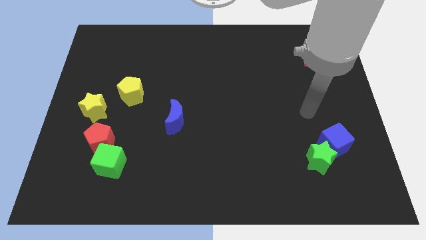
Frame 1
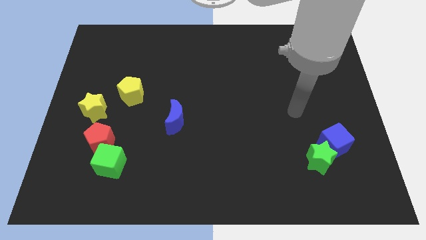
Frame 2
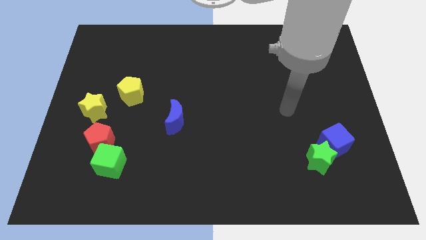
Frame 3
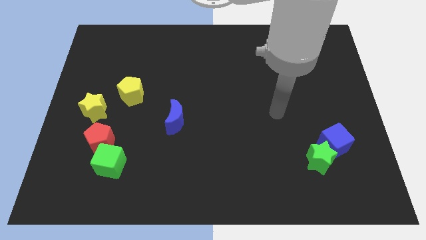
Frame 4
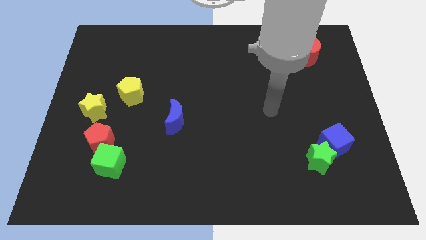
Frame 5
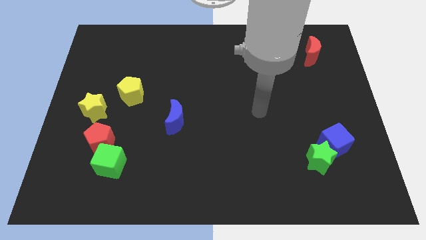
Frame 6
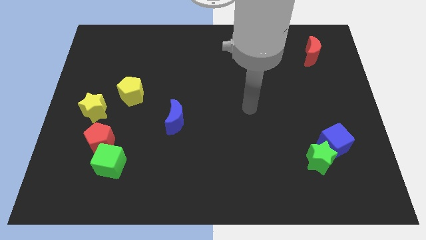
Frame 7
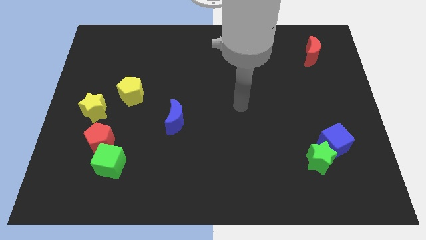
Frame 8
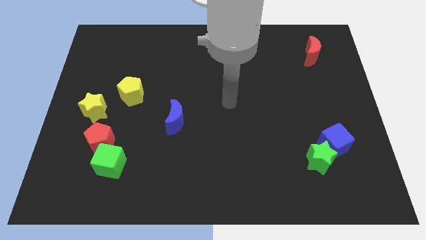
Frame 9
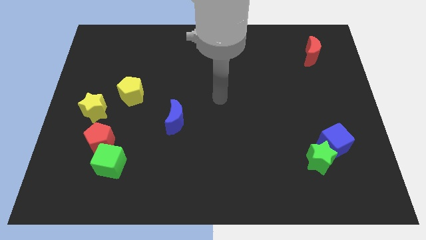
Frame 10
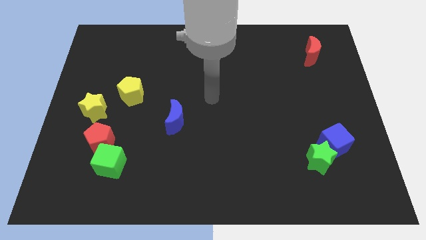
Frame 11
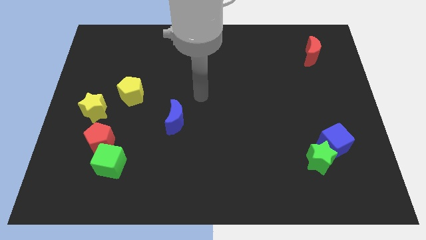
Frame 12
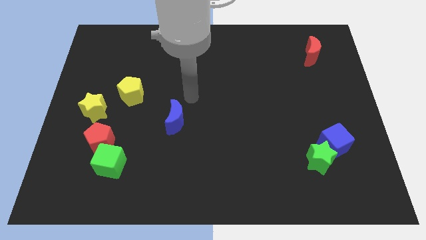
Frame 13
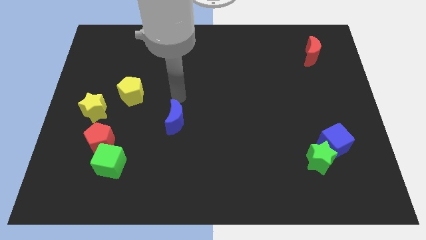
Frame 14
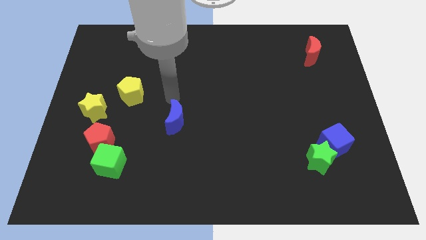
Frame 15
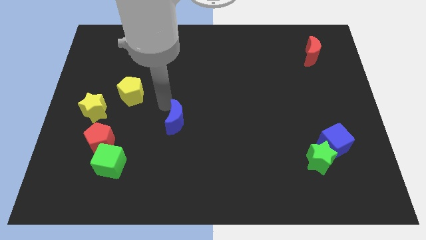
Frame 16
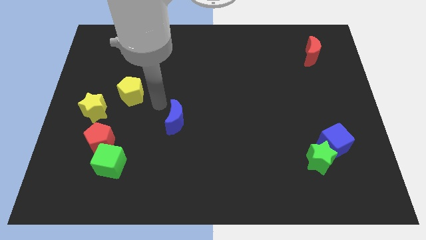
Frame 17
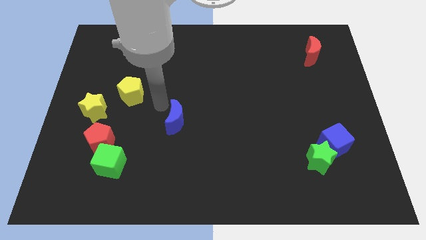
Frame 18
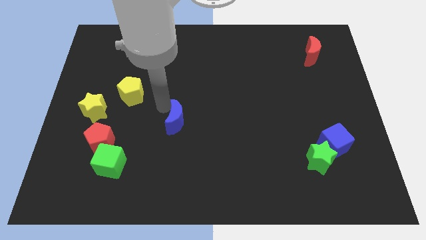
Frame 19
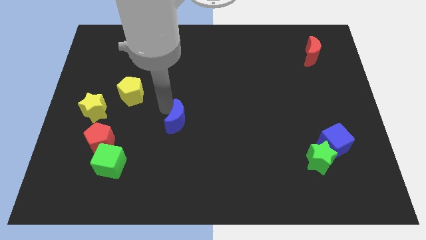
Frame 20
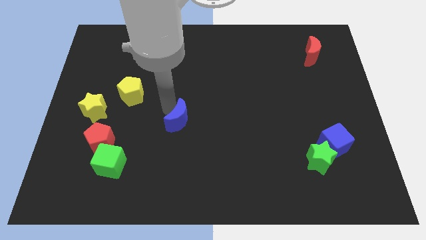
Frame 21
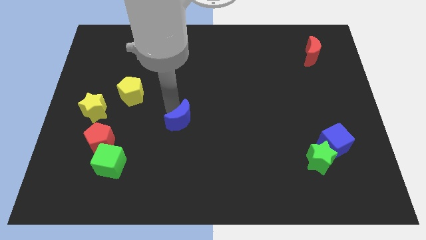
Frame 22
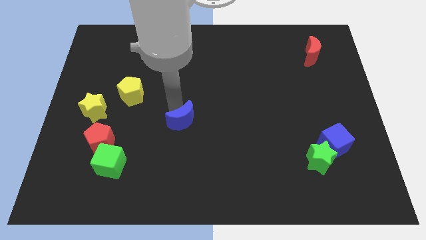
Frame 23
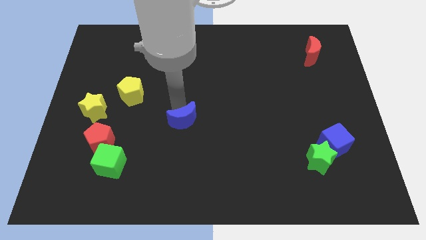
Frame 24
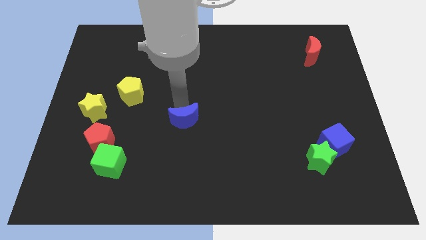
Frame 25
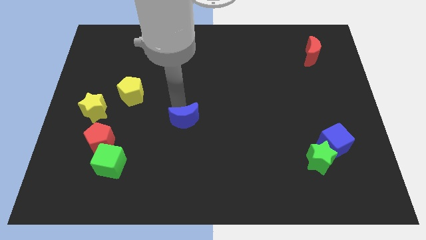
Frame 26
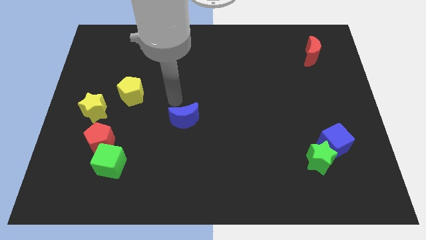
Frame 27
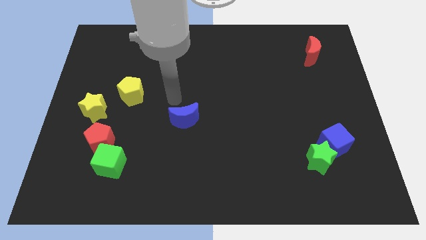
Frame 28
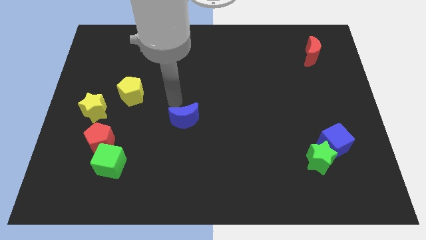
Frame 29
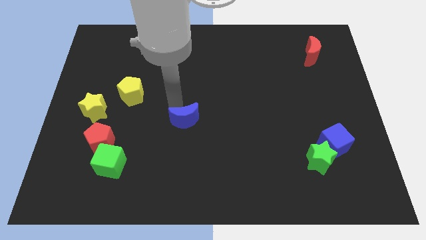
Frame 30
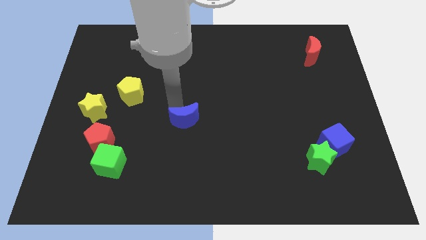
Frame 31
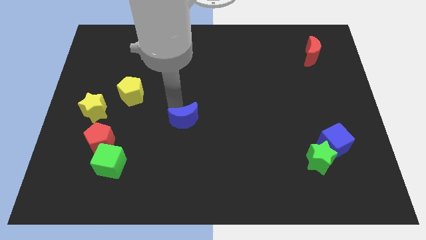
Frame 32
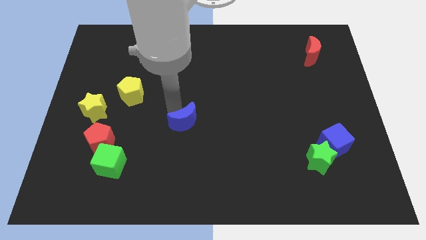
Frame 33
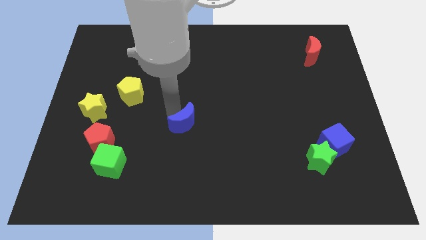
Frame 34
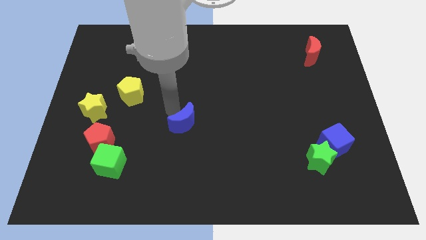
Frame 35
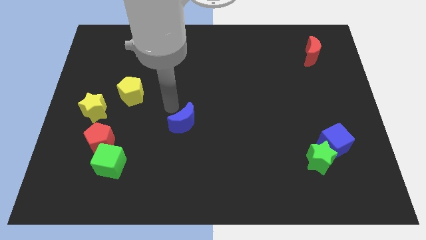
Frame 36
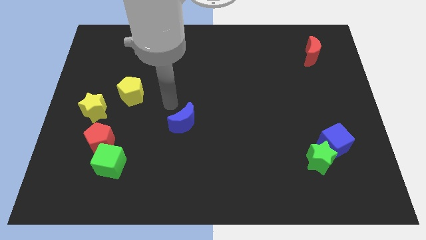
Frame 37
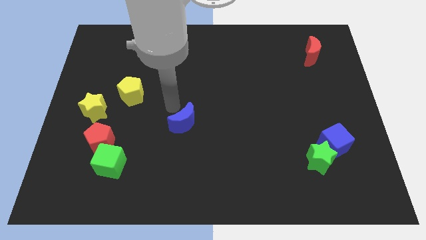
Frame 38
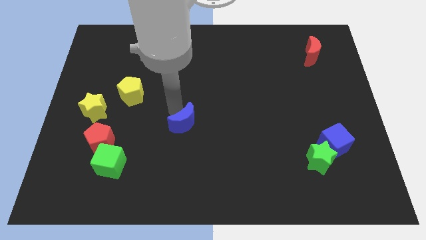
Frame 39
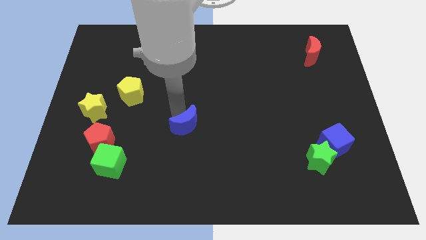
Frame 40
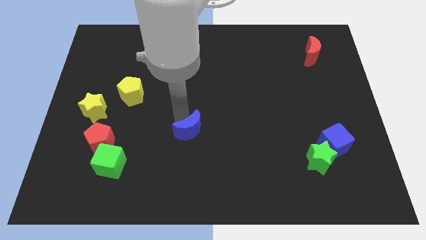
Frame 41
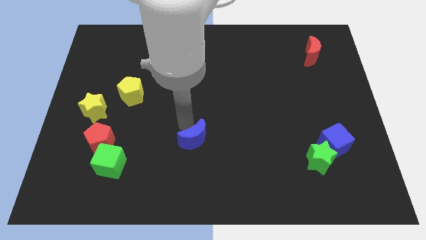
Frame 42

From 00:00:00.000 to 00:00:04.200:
slide the blue moon a bit down and to the right

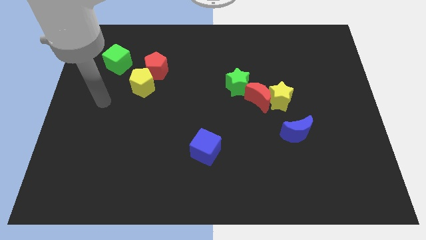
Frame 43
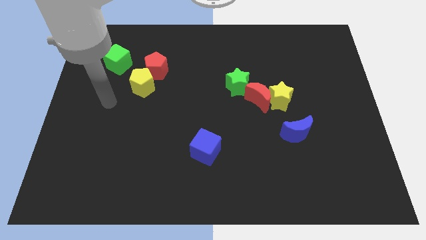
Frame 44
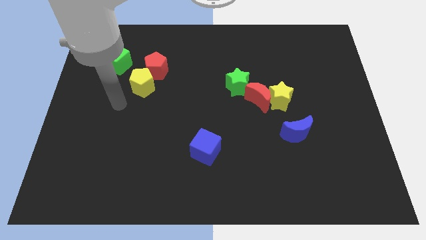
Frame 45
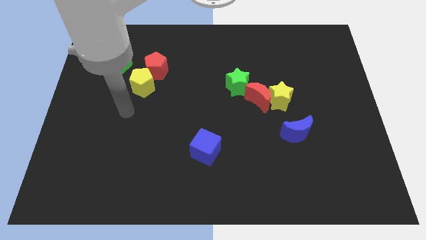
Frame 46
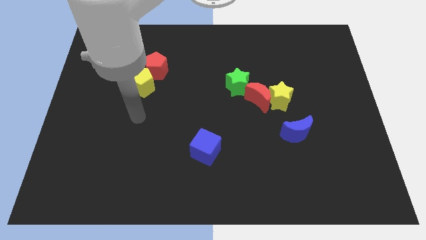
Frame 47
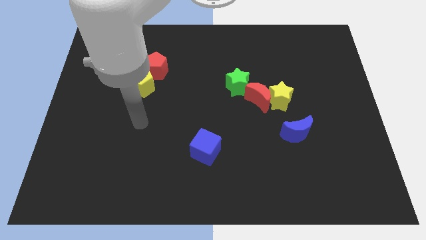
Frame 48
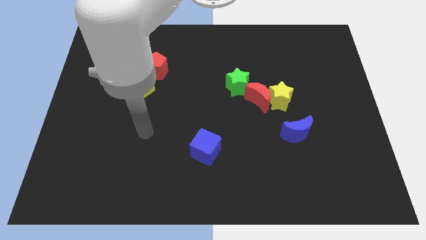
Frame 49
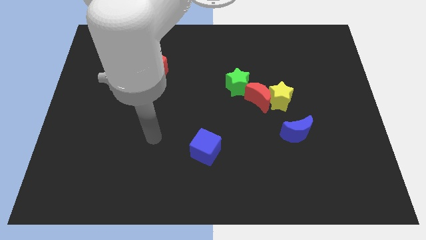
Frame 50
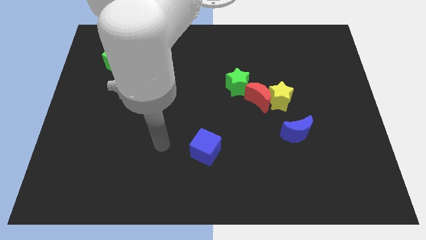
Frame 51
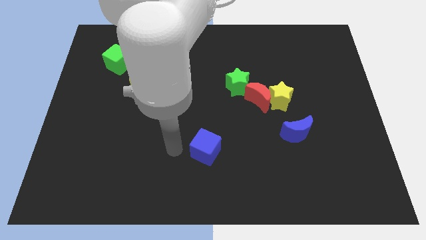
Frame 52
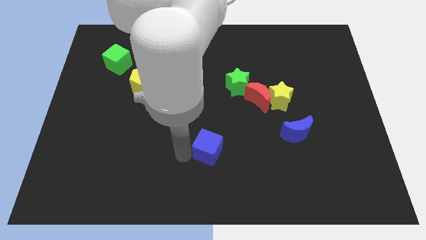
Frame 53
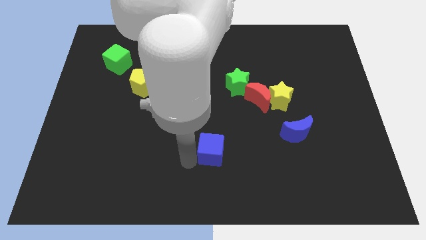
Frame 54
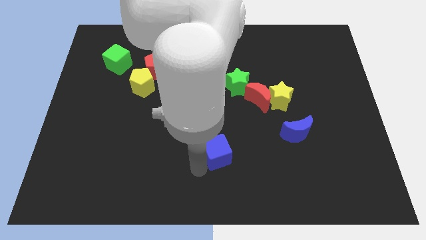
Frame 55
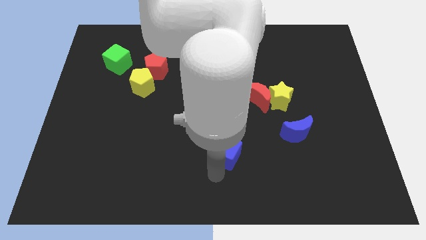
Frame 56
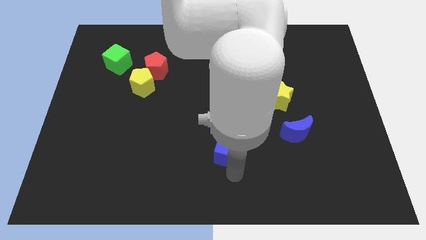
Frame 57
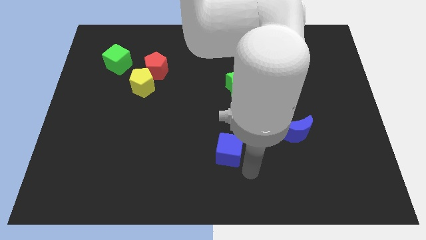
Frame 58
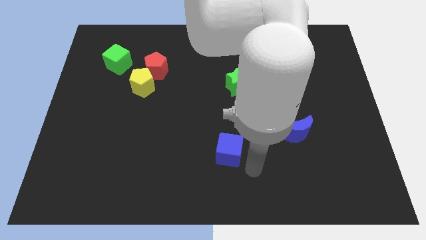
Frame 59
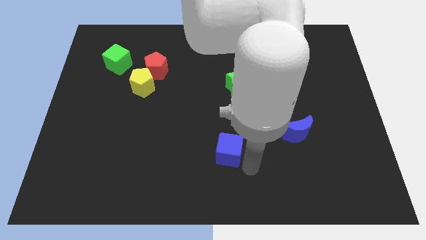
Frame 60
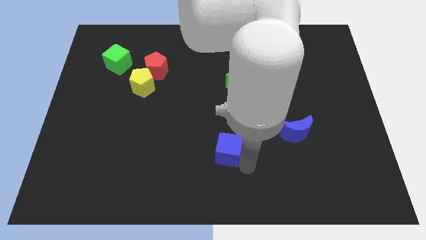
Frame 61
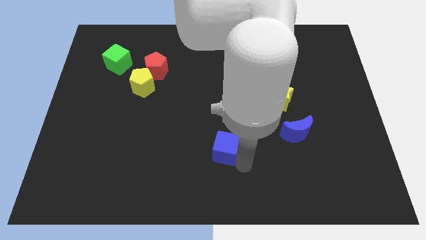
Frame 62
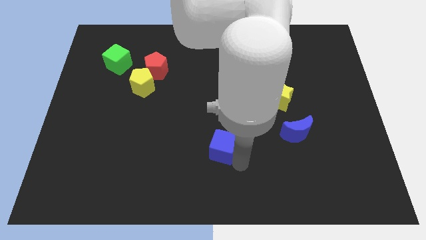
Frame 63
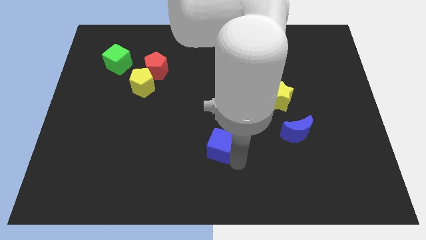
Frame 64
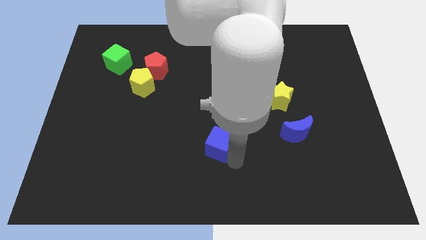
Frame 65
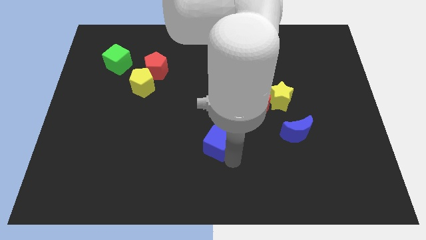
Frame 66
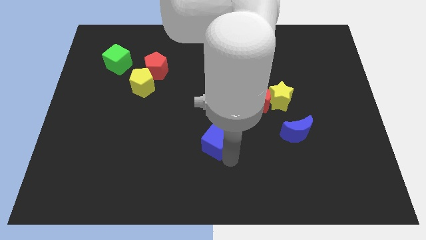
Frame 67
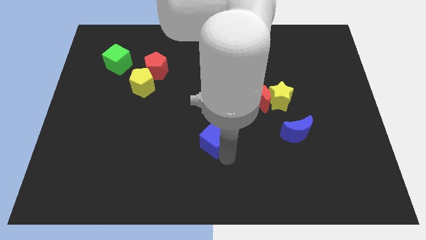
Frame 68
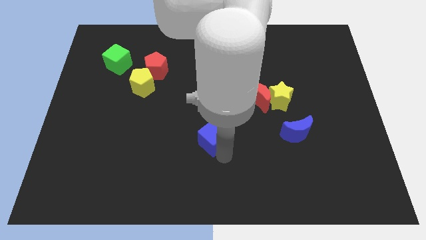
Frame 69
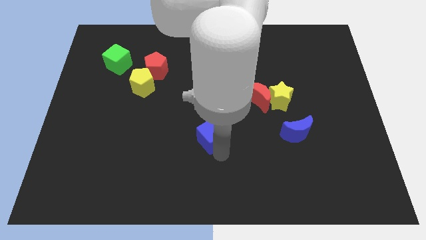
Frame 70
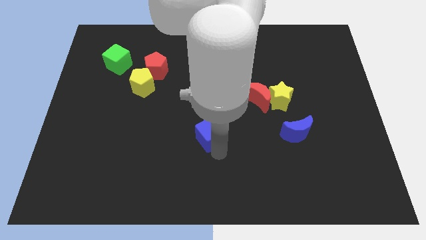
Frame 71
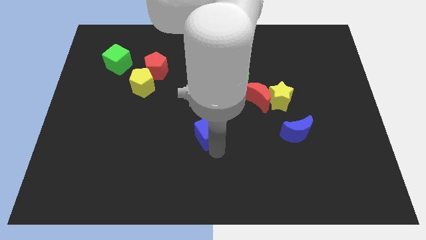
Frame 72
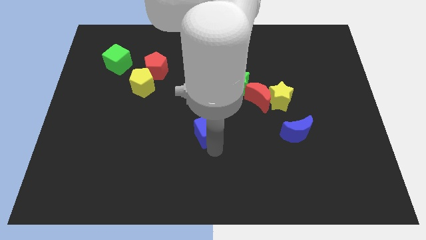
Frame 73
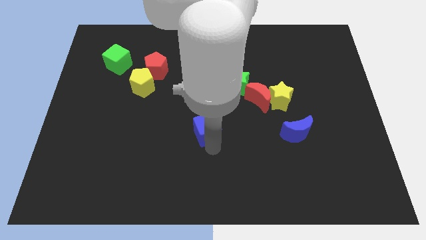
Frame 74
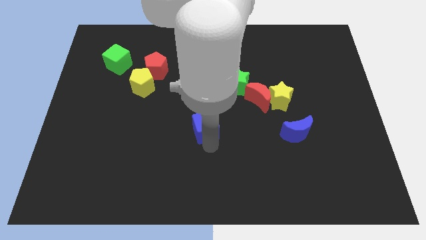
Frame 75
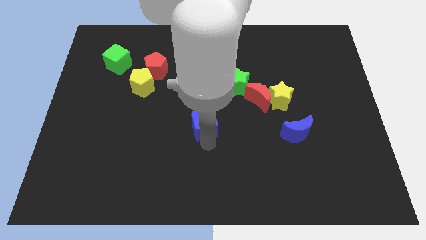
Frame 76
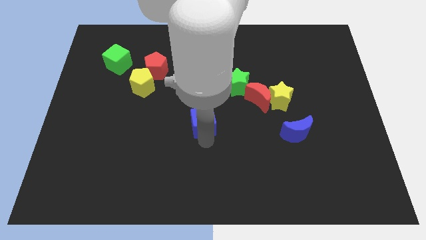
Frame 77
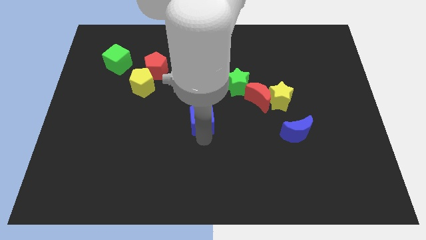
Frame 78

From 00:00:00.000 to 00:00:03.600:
push the blue cube a little bit upwards

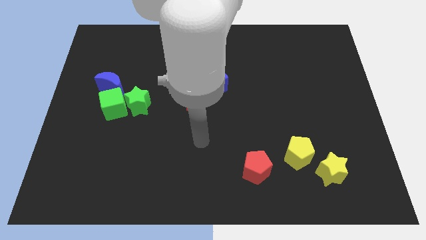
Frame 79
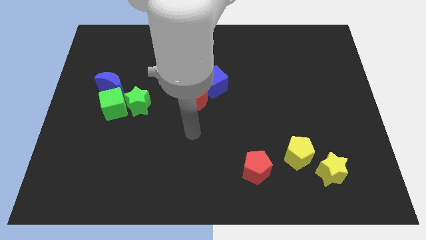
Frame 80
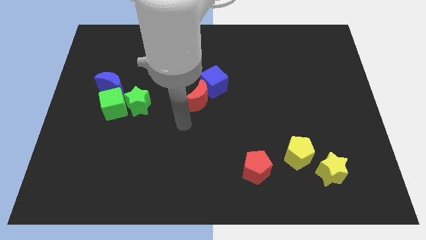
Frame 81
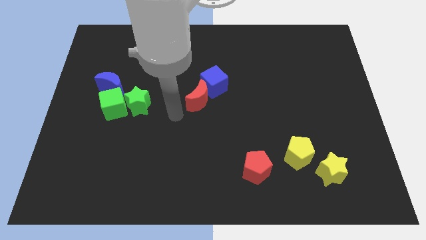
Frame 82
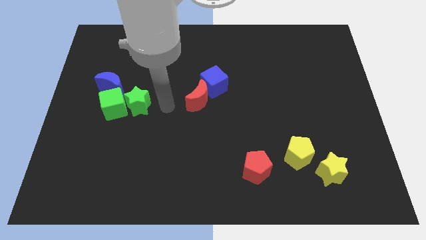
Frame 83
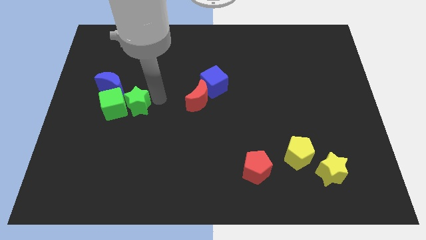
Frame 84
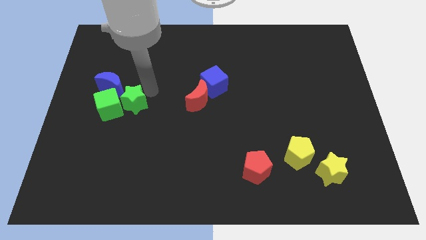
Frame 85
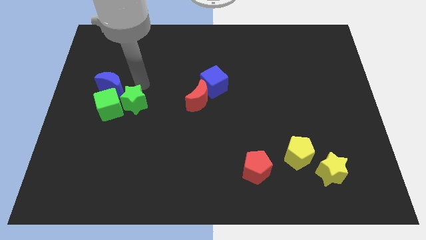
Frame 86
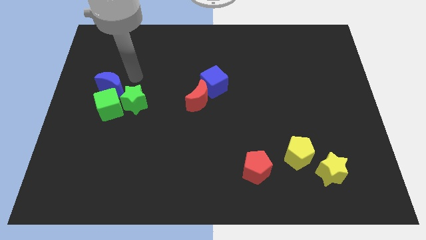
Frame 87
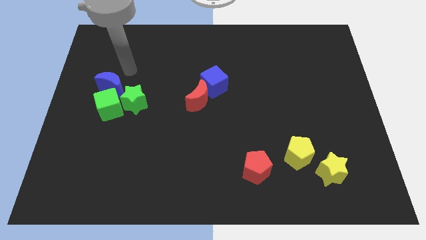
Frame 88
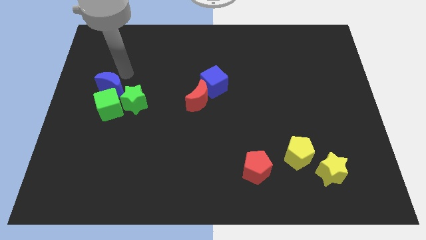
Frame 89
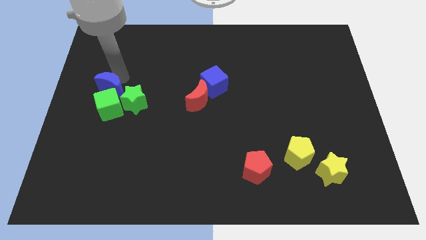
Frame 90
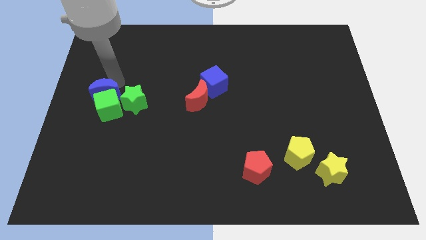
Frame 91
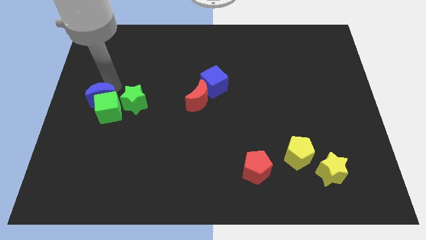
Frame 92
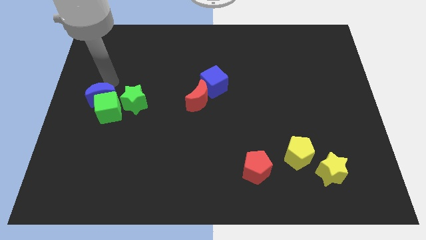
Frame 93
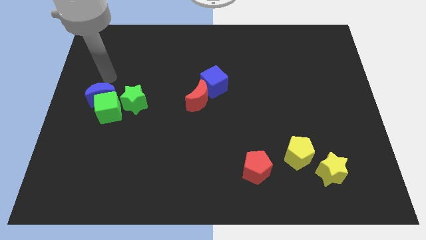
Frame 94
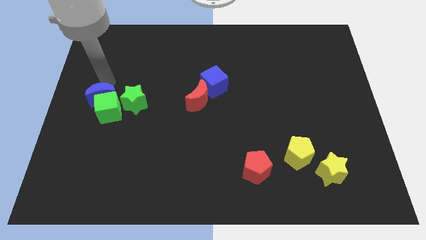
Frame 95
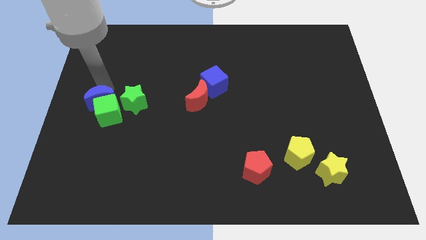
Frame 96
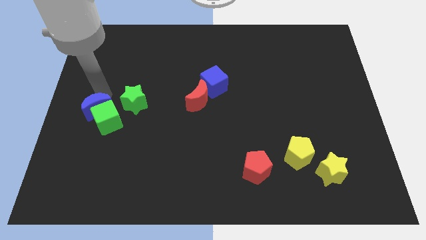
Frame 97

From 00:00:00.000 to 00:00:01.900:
slightly slide the blue moon down
